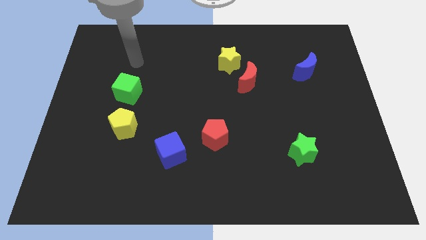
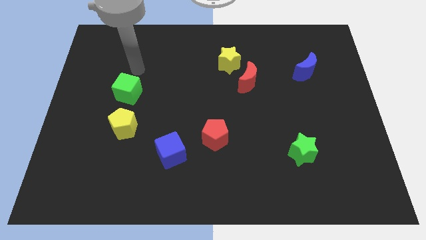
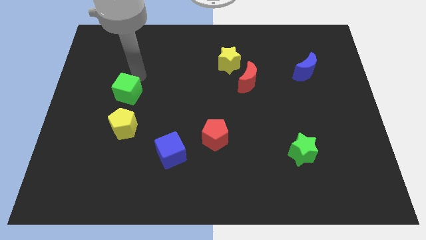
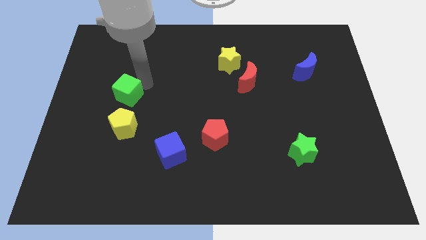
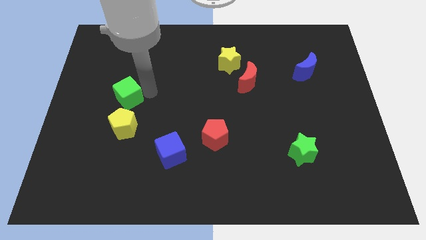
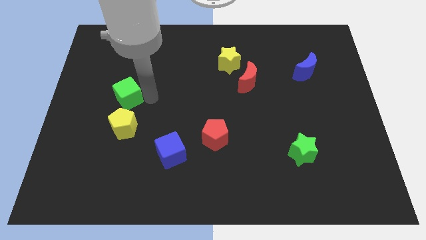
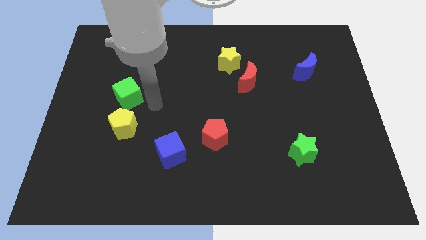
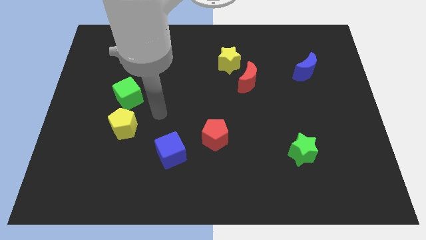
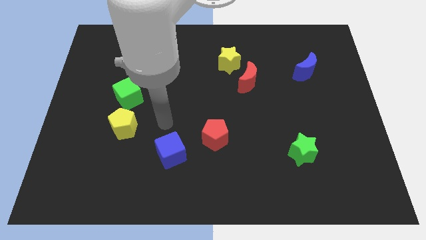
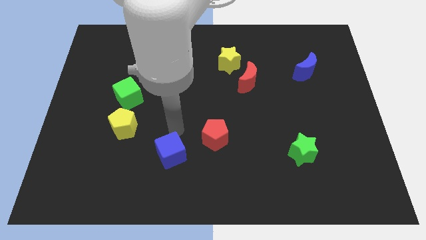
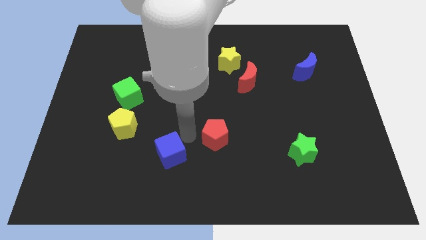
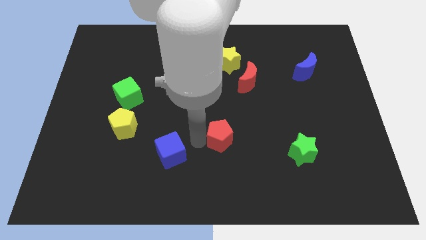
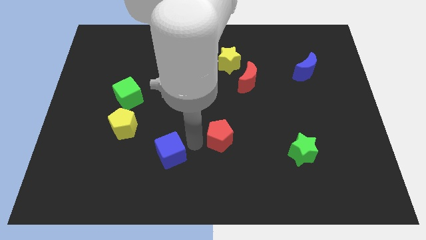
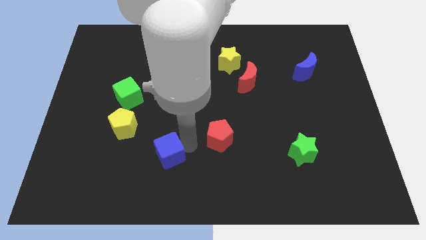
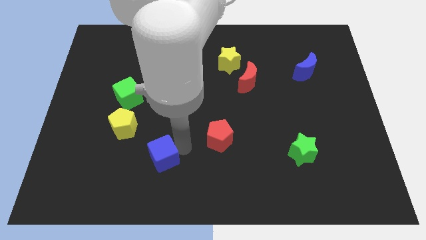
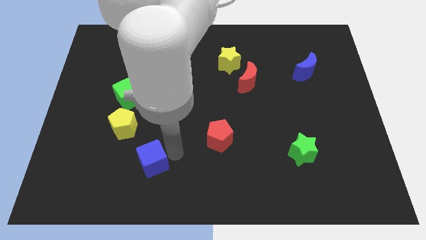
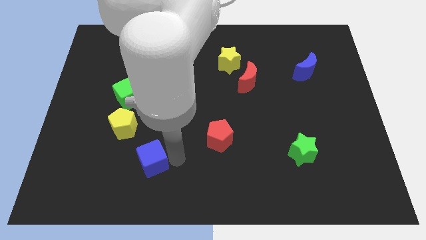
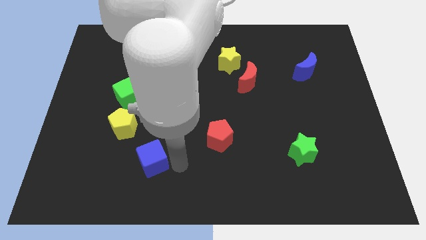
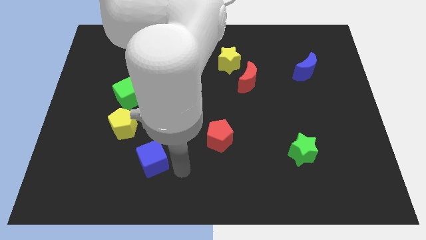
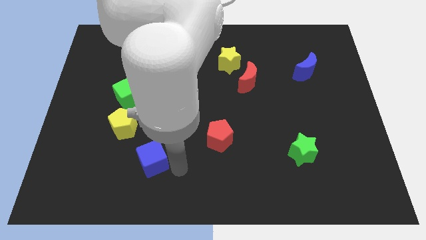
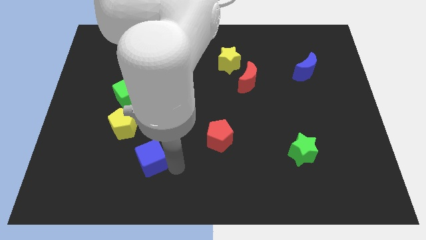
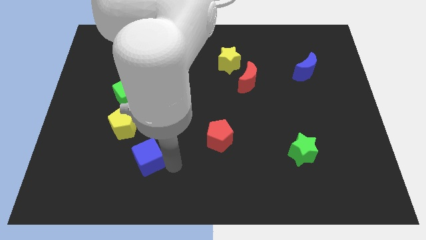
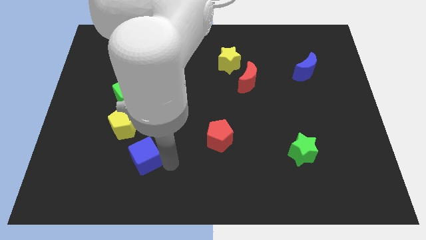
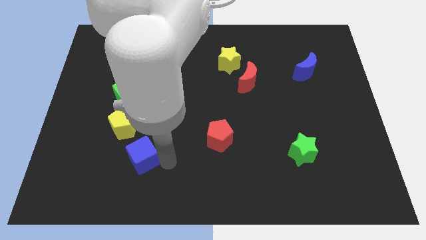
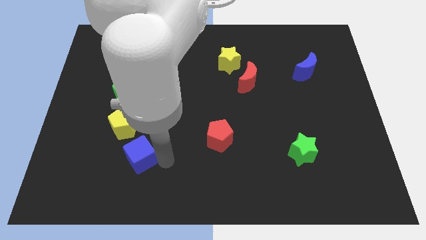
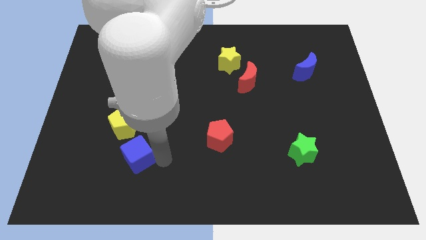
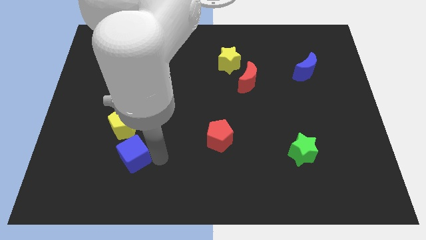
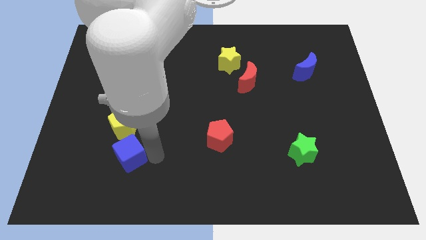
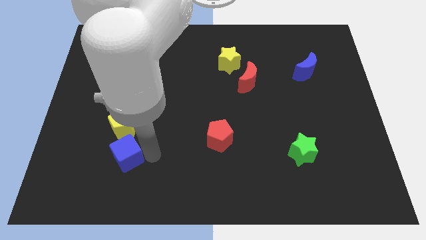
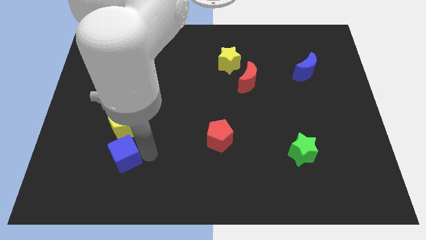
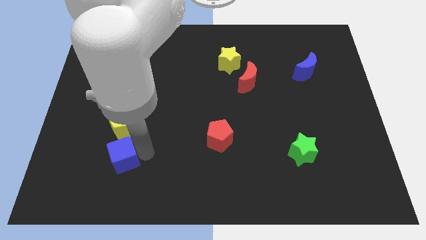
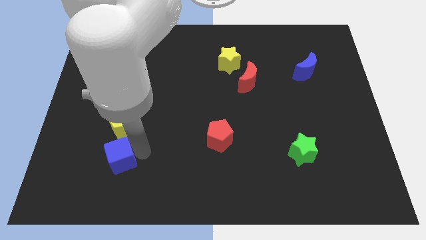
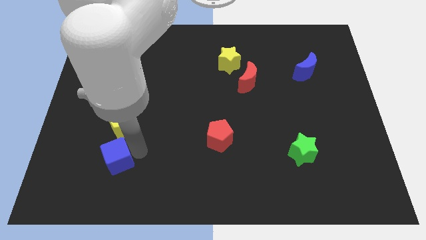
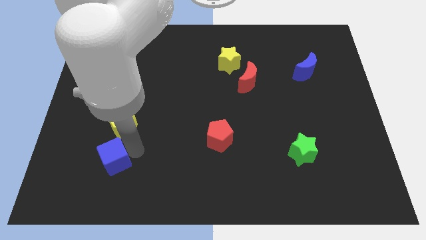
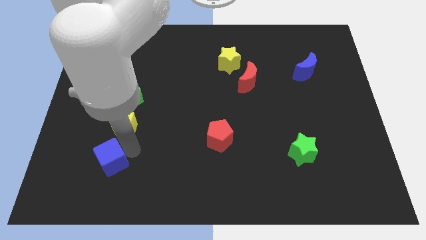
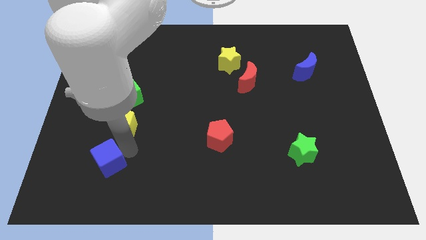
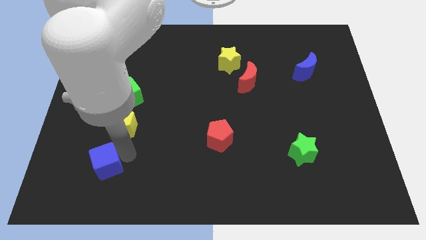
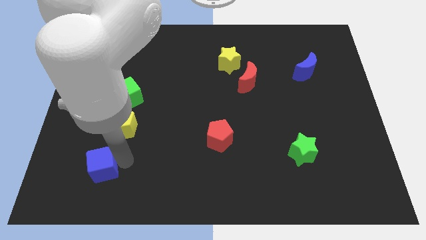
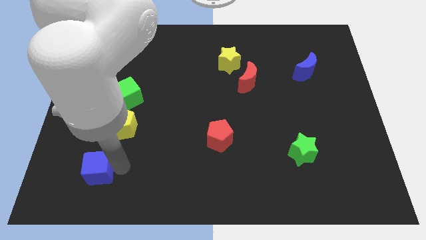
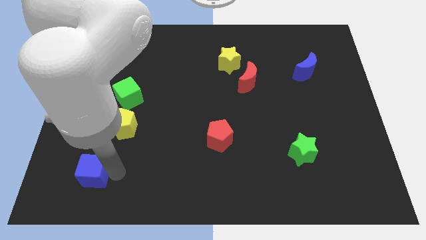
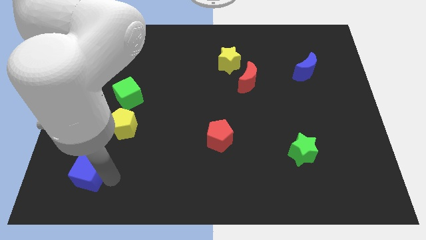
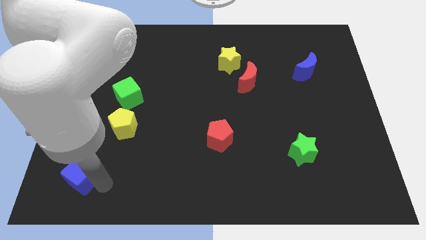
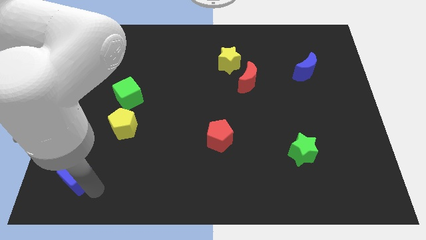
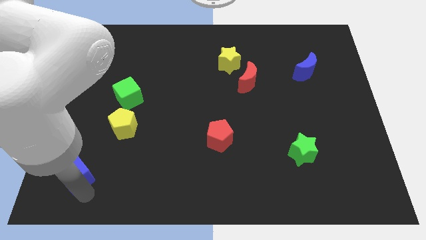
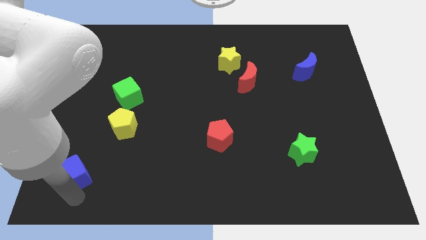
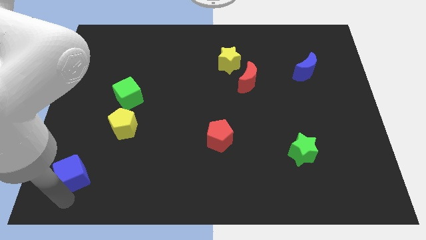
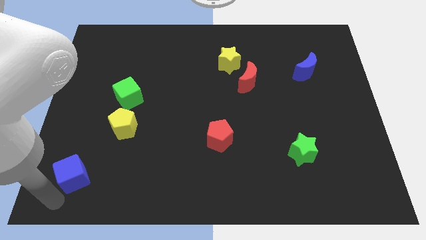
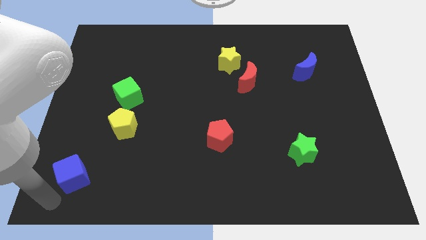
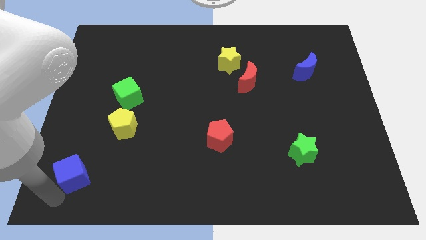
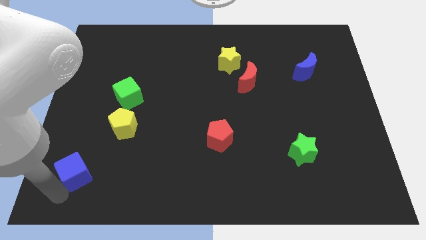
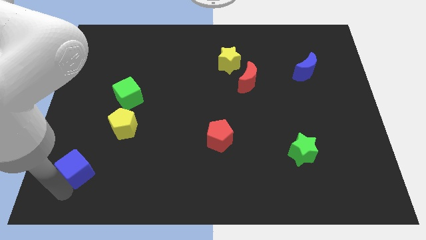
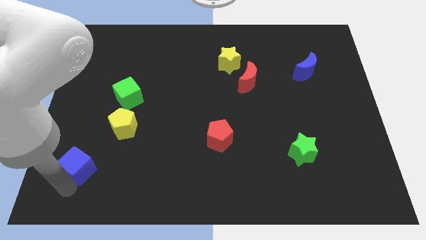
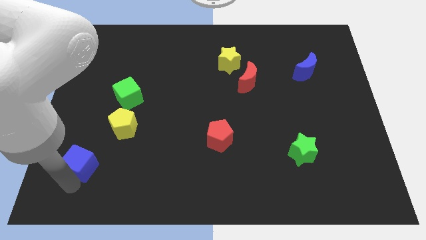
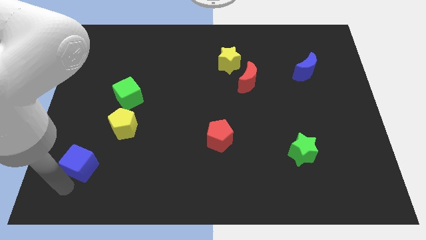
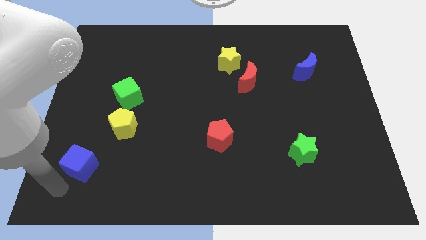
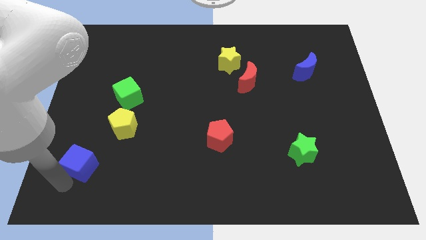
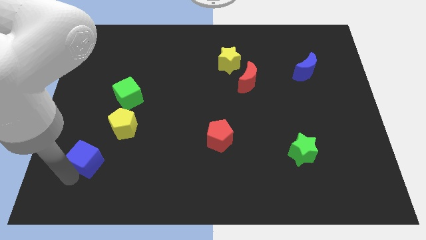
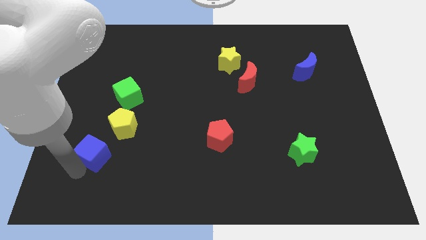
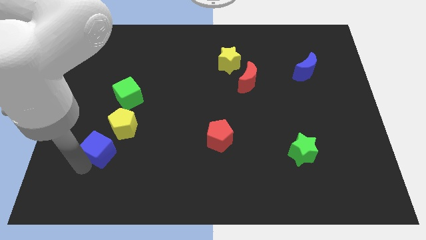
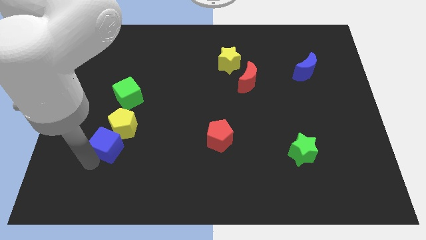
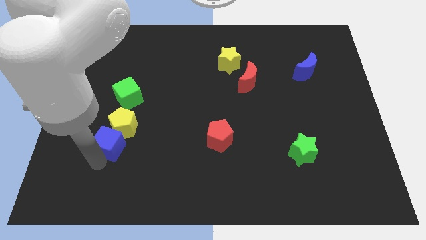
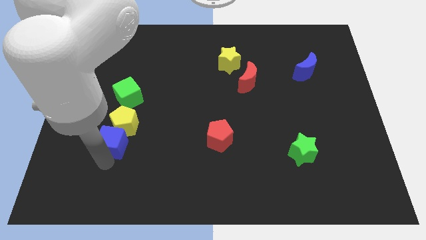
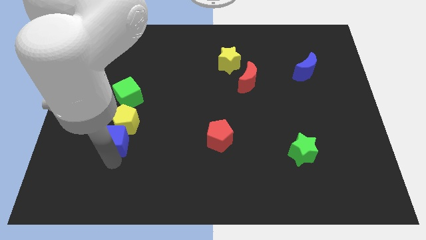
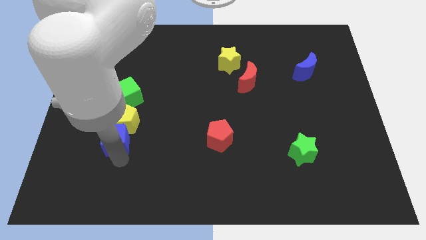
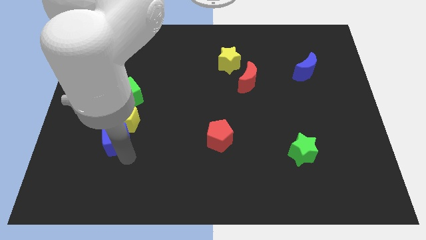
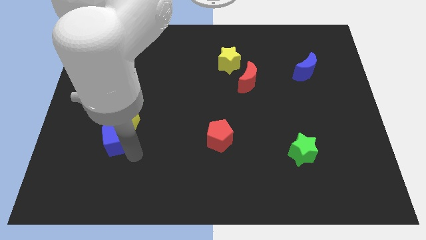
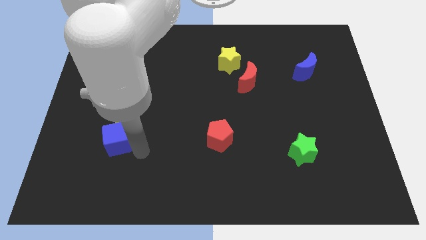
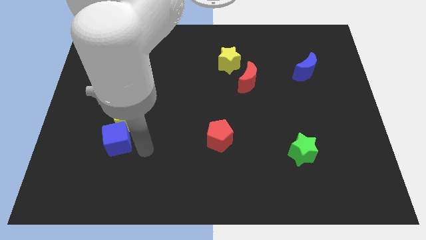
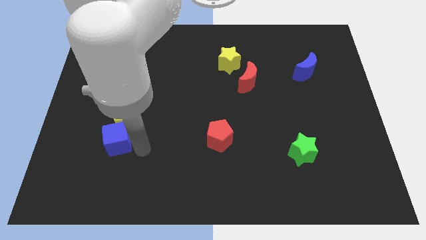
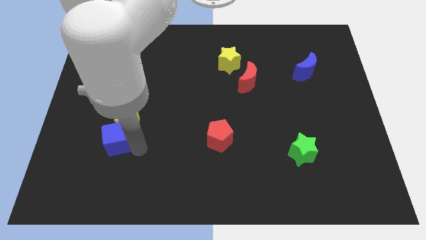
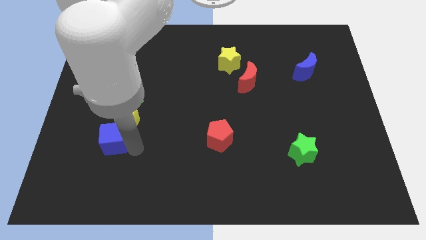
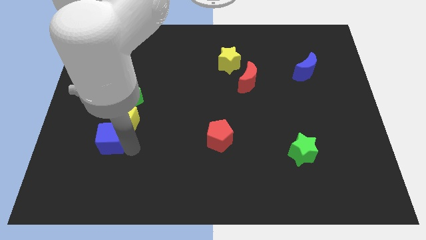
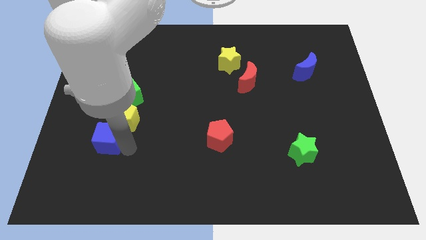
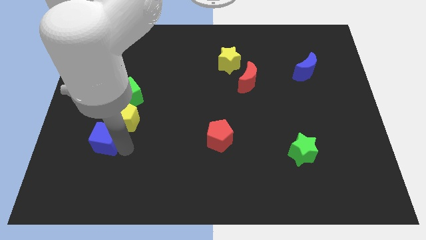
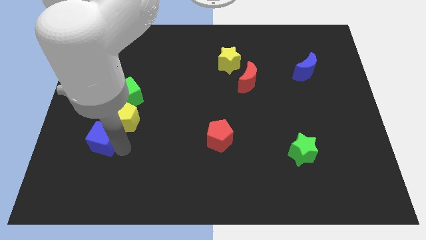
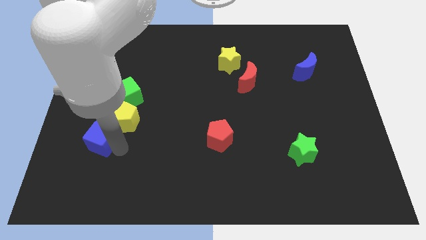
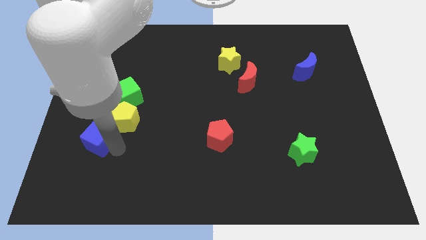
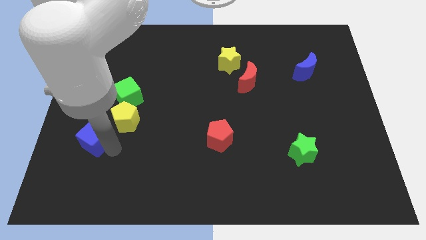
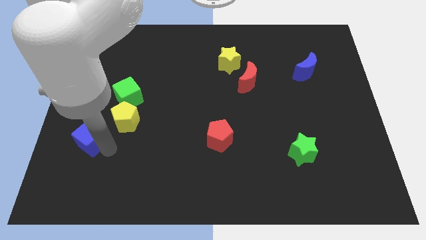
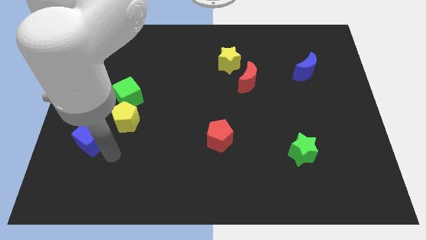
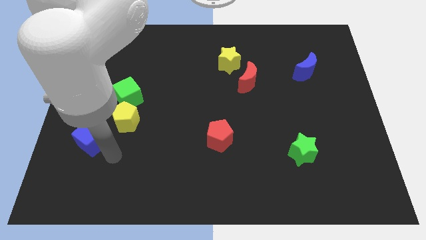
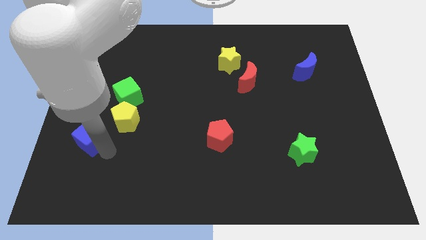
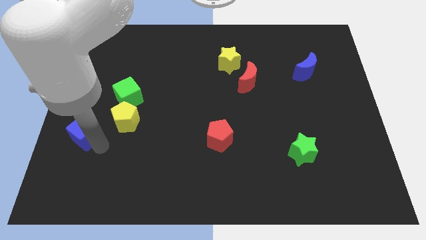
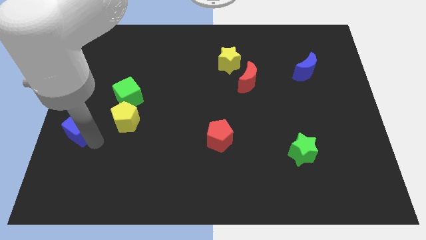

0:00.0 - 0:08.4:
move the blue cube to the center left
